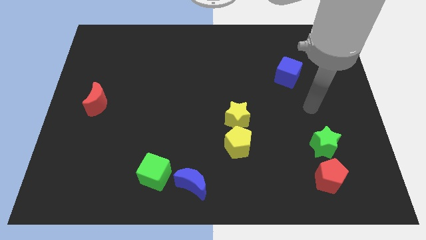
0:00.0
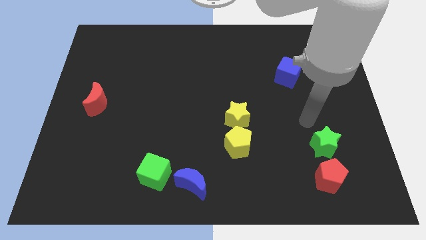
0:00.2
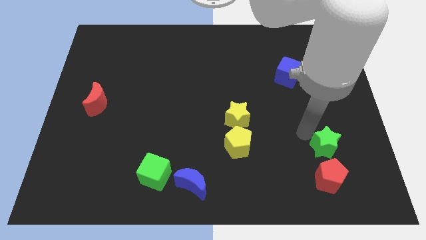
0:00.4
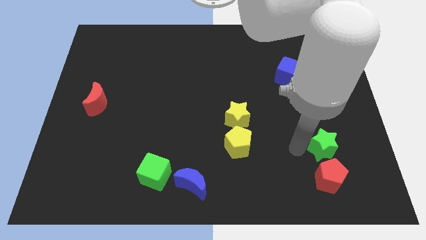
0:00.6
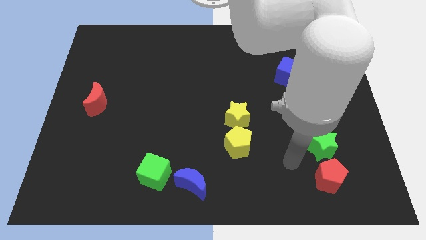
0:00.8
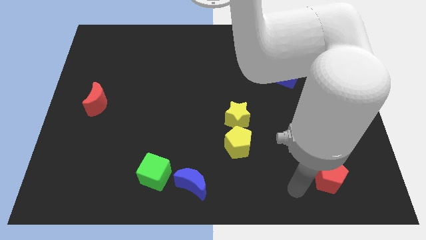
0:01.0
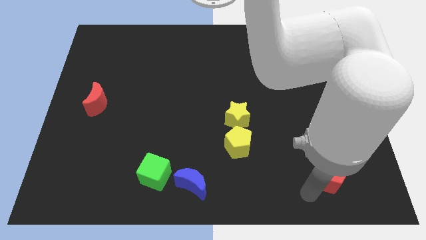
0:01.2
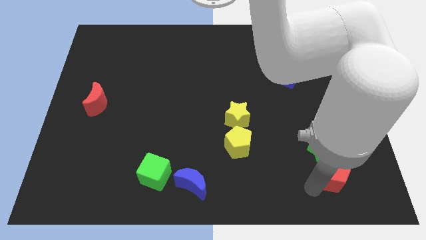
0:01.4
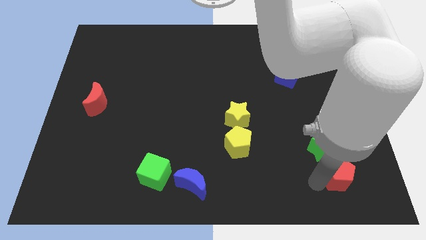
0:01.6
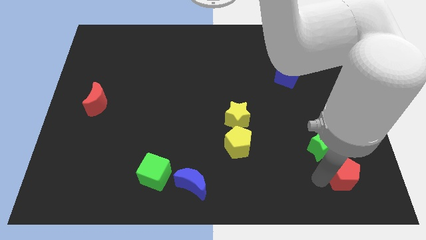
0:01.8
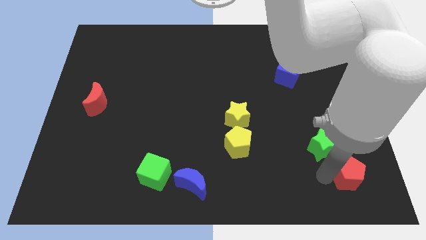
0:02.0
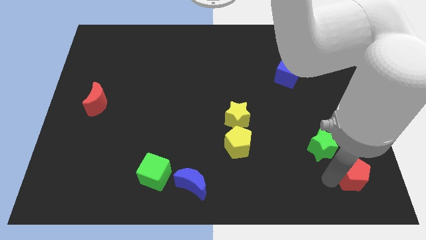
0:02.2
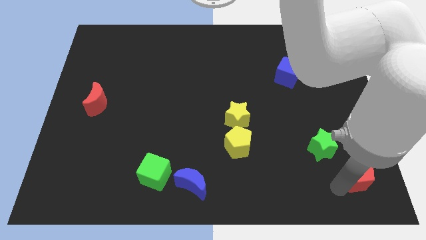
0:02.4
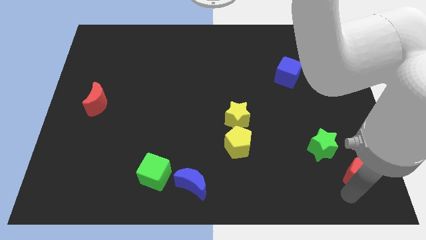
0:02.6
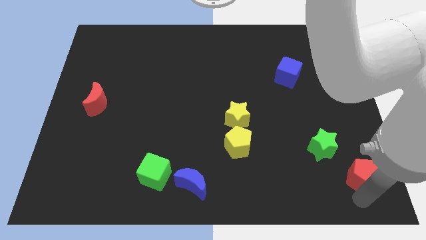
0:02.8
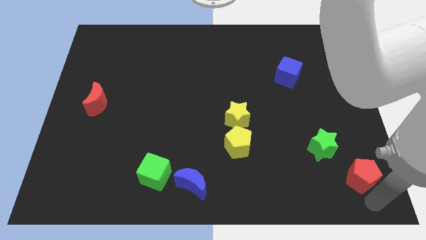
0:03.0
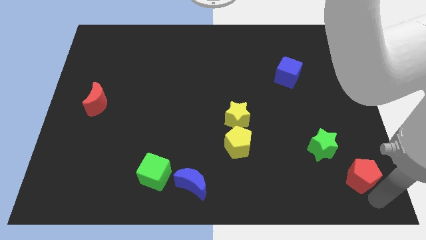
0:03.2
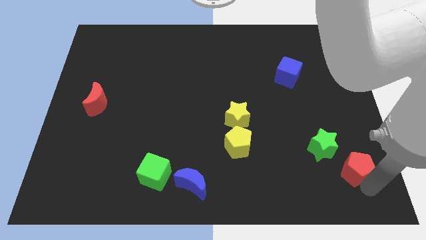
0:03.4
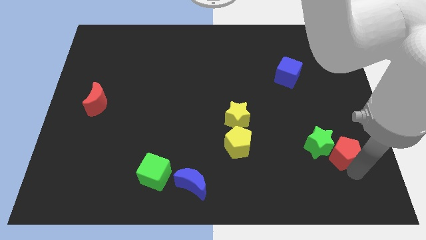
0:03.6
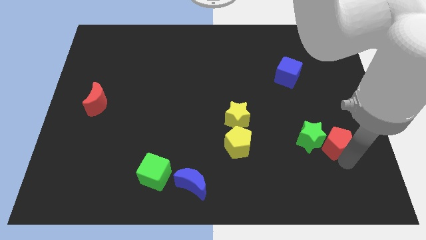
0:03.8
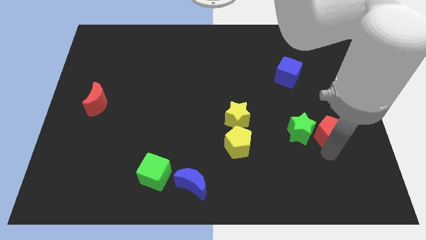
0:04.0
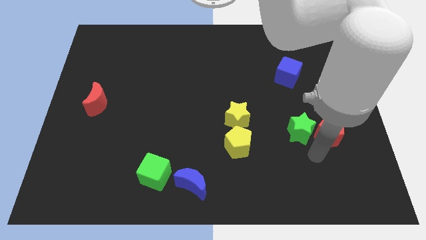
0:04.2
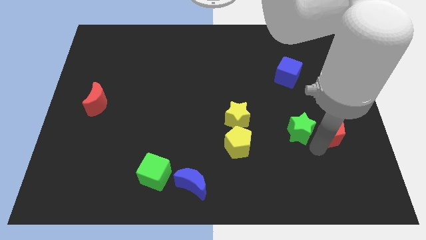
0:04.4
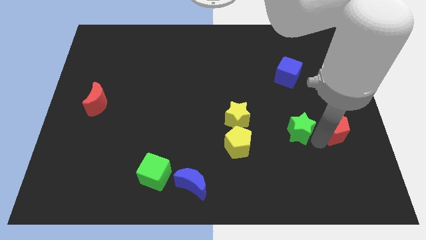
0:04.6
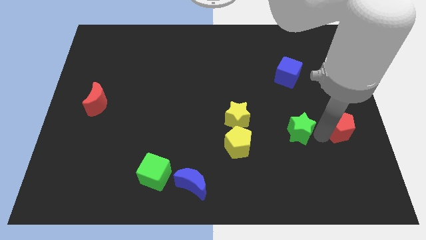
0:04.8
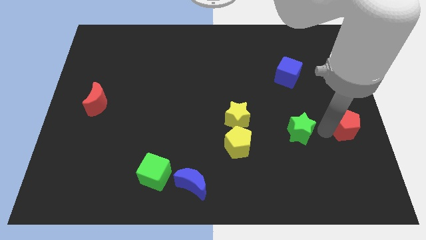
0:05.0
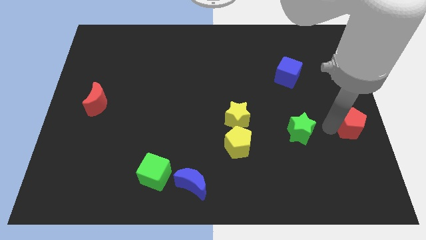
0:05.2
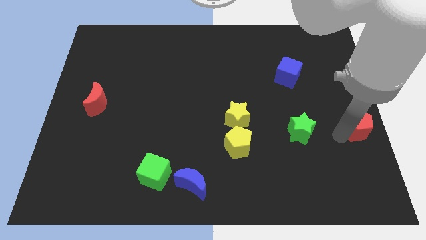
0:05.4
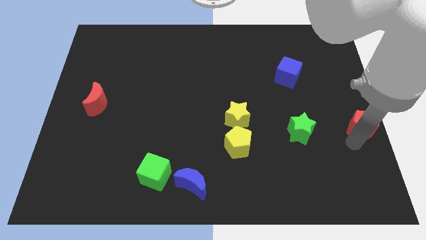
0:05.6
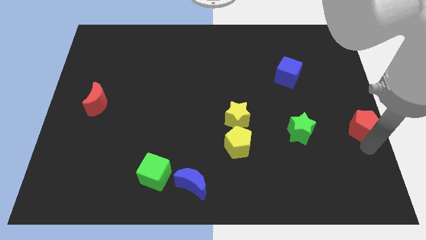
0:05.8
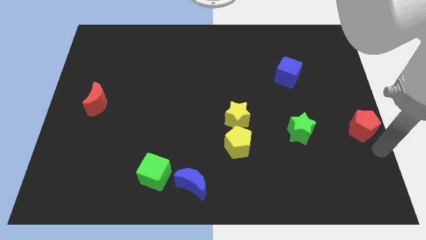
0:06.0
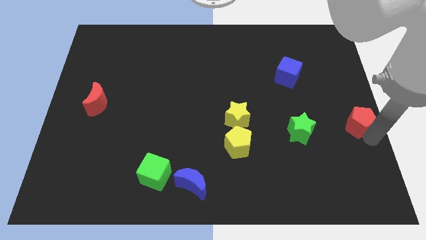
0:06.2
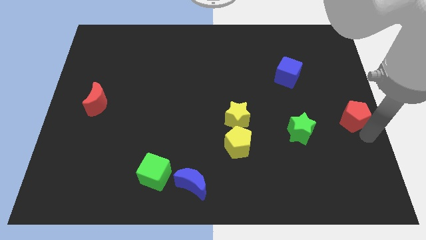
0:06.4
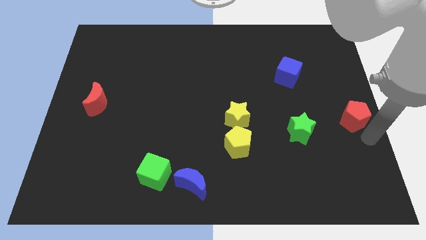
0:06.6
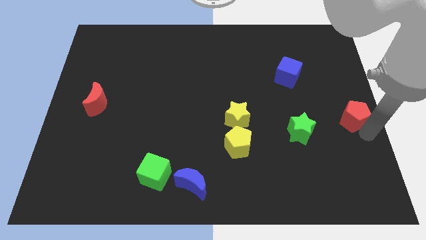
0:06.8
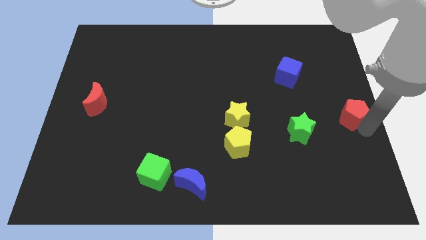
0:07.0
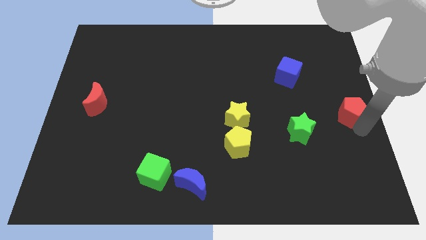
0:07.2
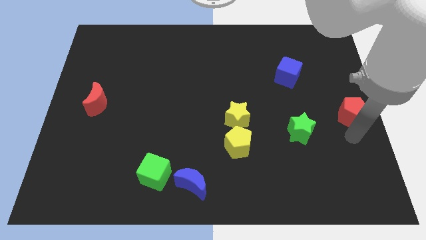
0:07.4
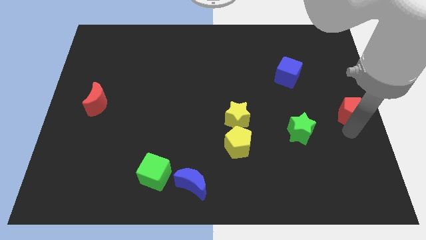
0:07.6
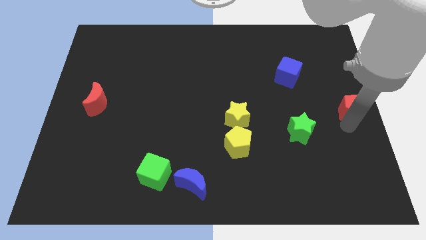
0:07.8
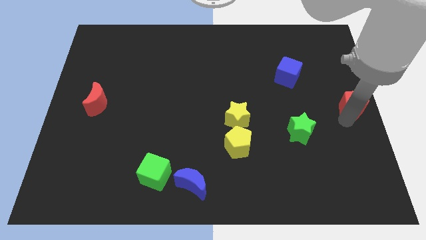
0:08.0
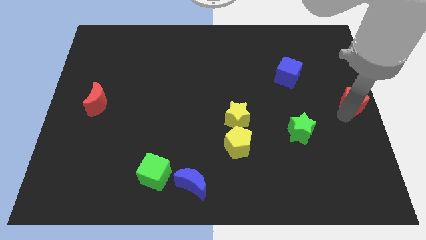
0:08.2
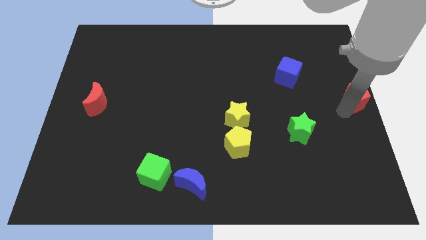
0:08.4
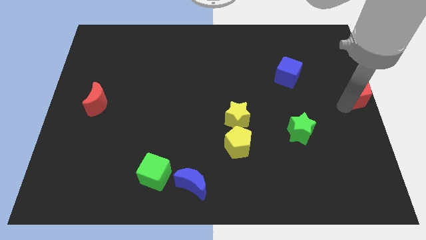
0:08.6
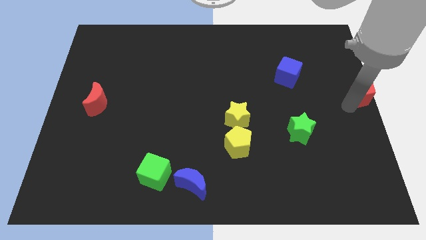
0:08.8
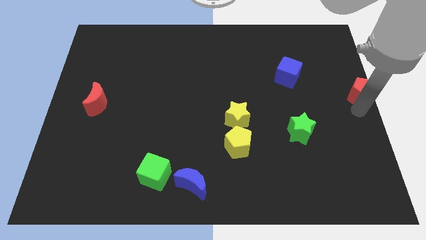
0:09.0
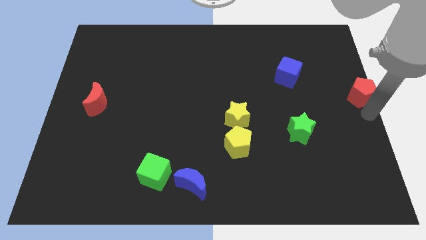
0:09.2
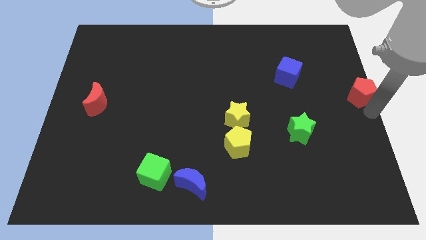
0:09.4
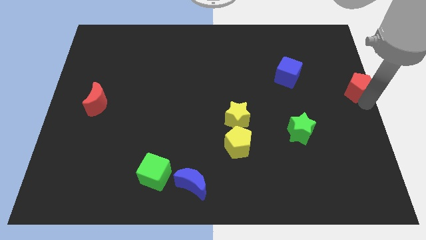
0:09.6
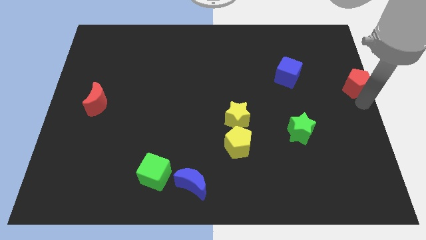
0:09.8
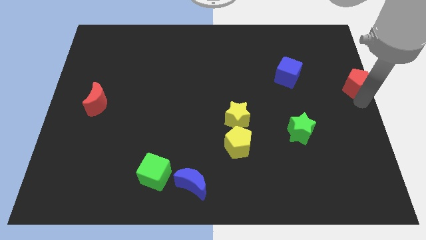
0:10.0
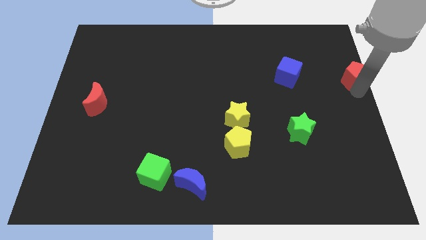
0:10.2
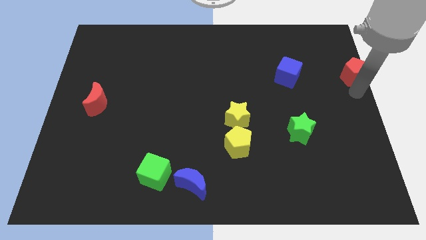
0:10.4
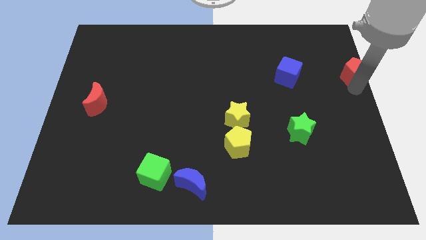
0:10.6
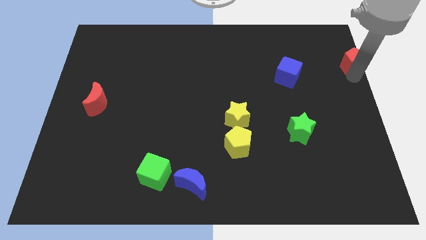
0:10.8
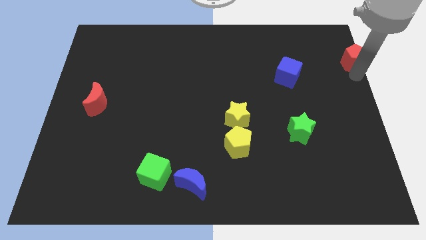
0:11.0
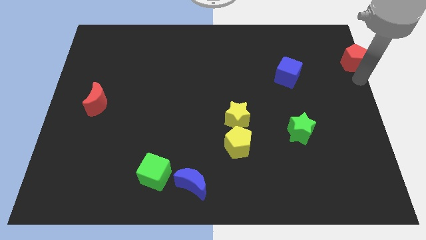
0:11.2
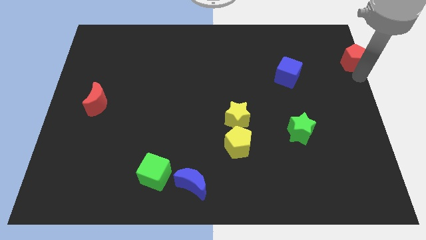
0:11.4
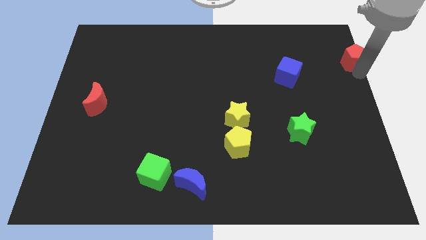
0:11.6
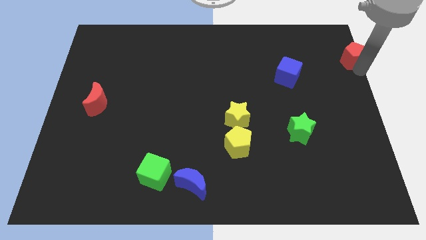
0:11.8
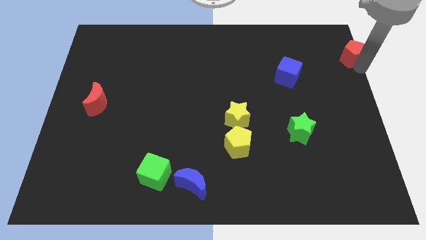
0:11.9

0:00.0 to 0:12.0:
put the red pentagon to the top right
